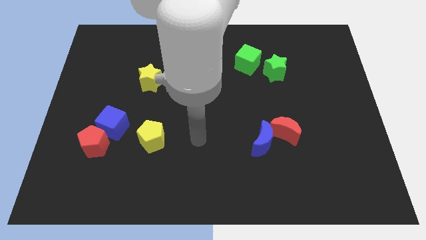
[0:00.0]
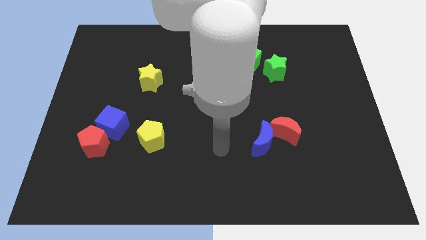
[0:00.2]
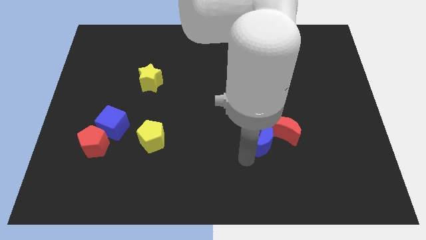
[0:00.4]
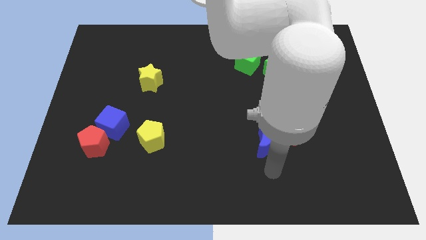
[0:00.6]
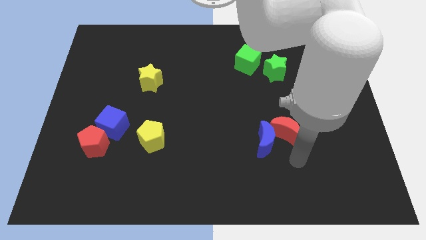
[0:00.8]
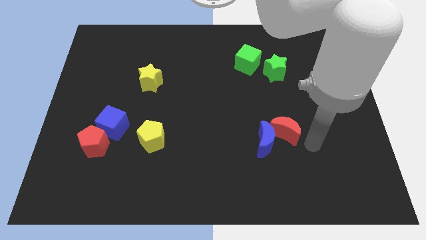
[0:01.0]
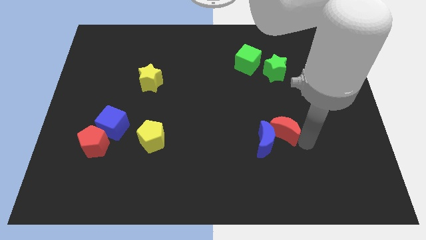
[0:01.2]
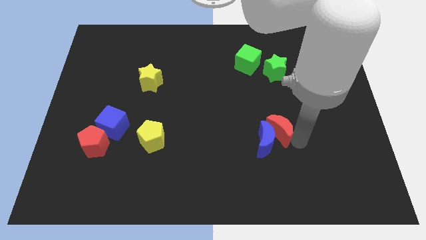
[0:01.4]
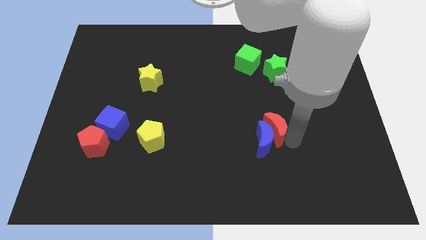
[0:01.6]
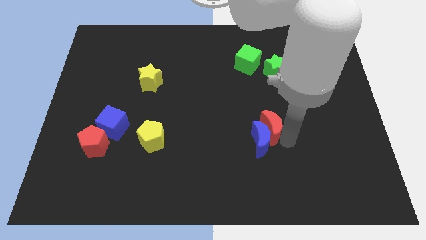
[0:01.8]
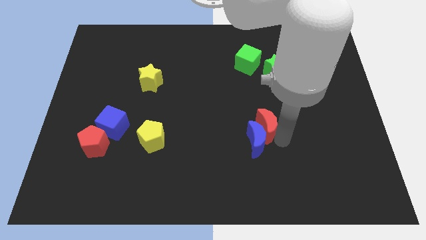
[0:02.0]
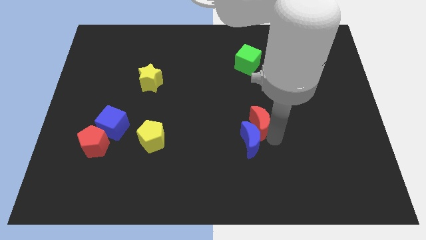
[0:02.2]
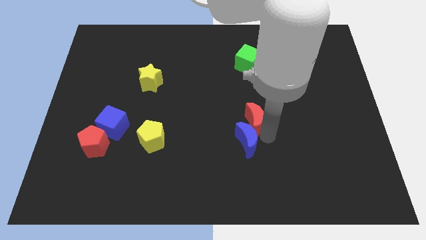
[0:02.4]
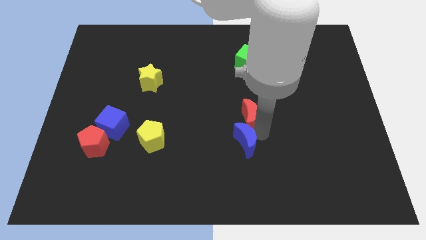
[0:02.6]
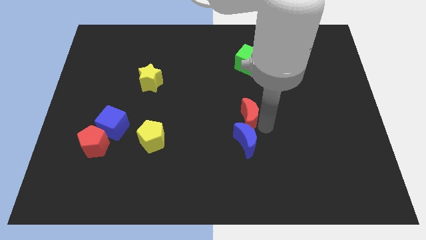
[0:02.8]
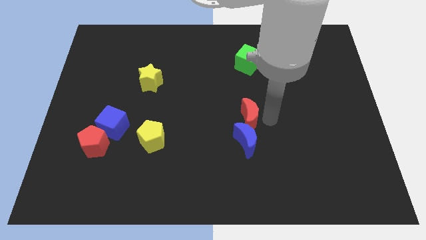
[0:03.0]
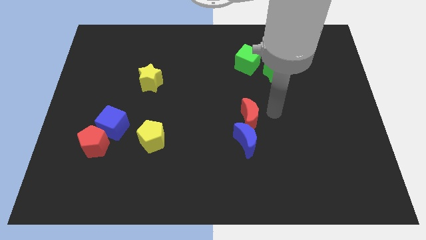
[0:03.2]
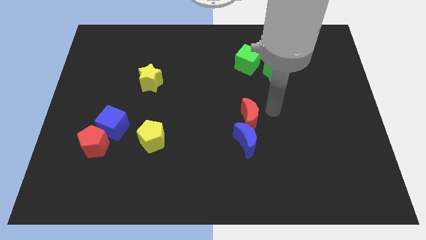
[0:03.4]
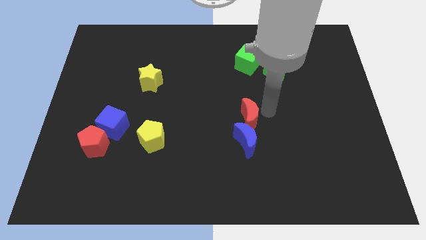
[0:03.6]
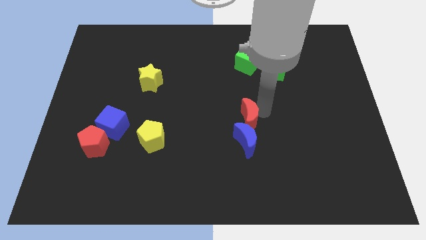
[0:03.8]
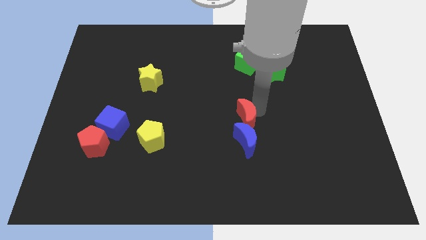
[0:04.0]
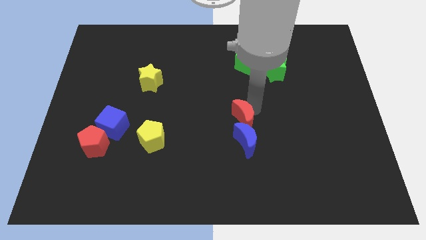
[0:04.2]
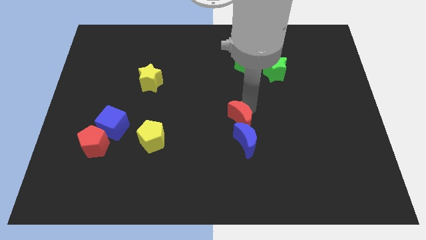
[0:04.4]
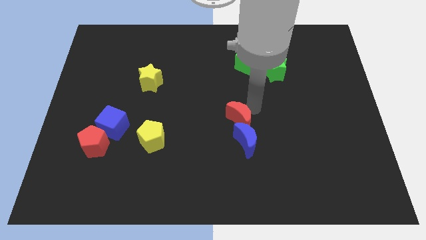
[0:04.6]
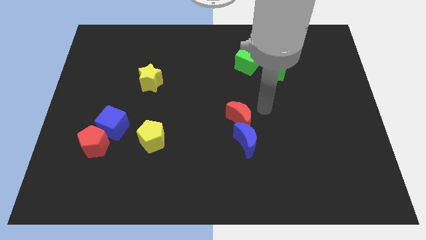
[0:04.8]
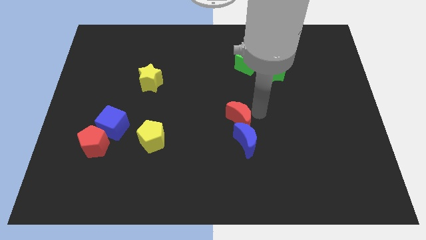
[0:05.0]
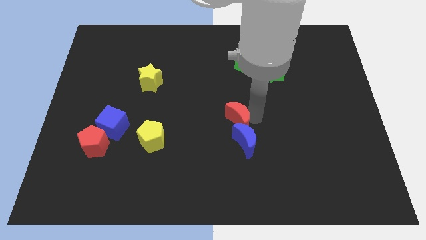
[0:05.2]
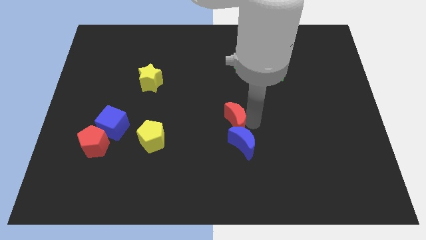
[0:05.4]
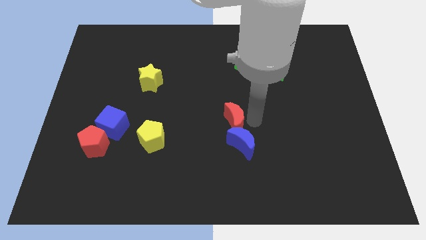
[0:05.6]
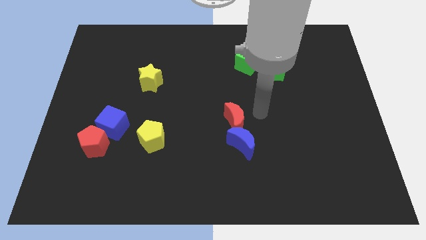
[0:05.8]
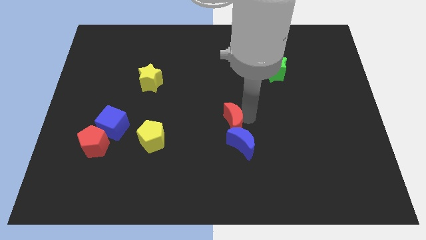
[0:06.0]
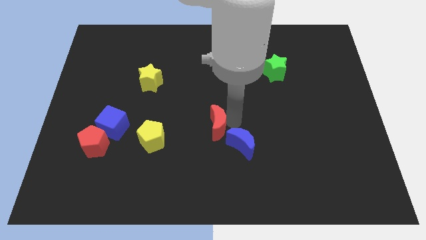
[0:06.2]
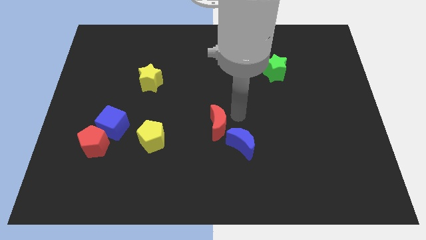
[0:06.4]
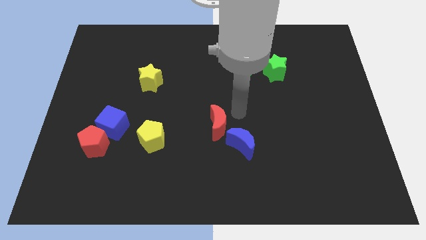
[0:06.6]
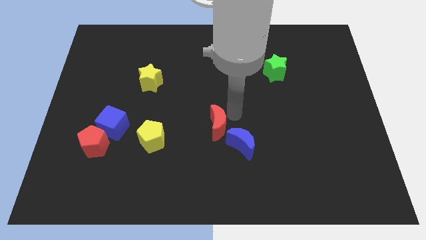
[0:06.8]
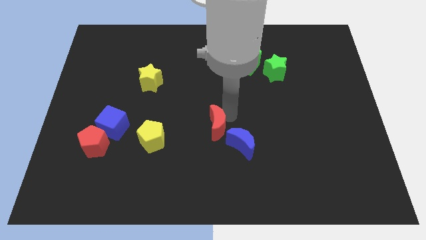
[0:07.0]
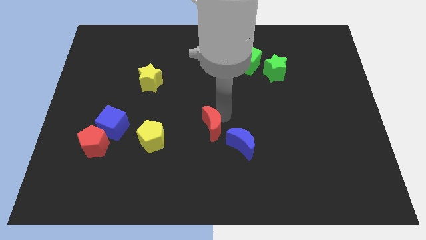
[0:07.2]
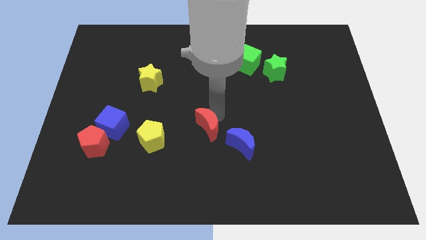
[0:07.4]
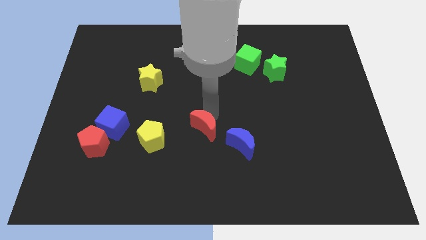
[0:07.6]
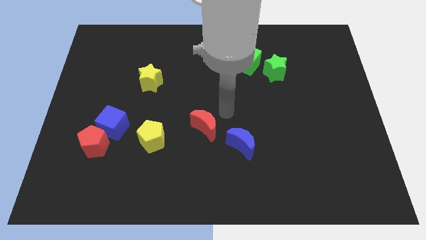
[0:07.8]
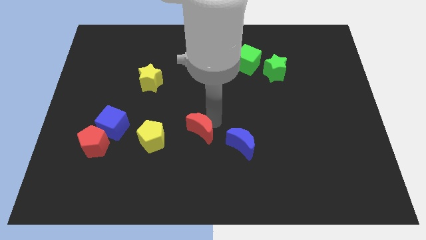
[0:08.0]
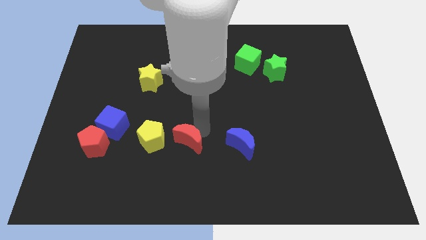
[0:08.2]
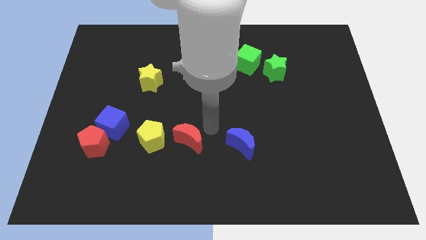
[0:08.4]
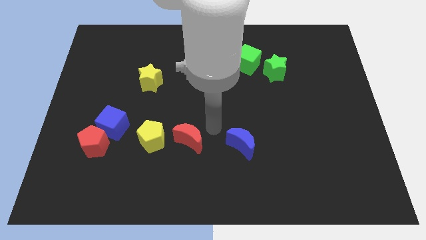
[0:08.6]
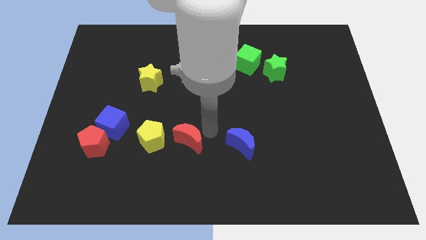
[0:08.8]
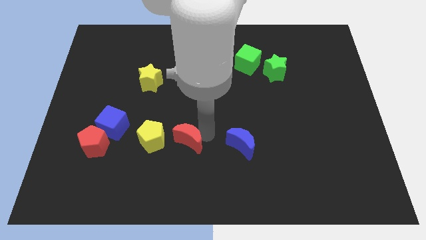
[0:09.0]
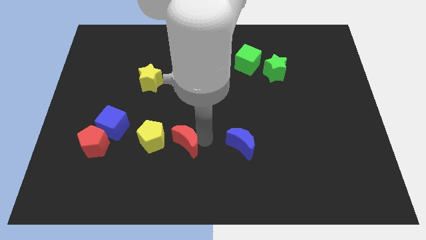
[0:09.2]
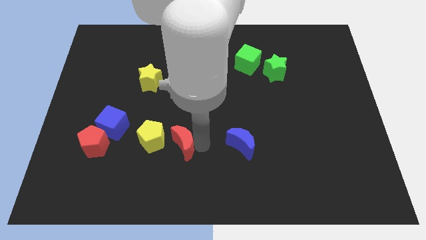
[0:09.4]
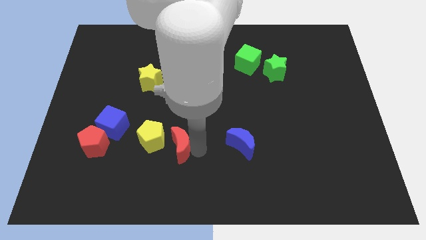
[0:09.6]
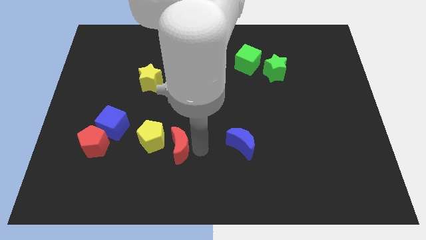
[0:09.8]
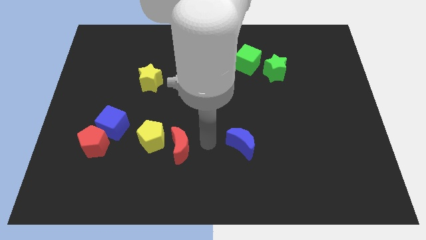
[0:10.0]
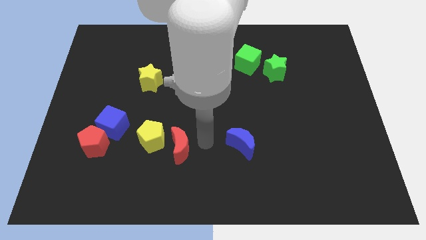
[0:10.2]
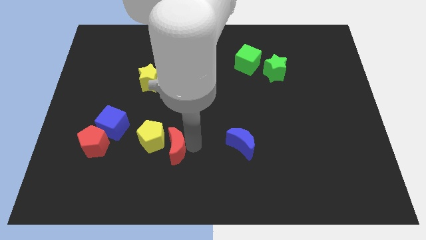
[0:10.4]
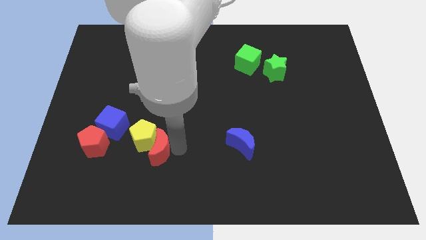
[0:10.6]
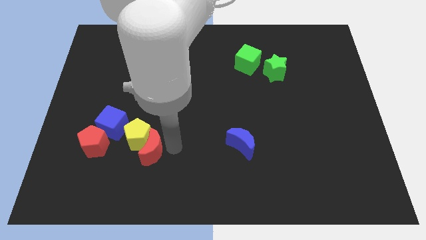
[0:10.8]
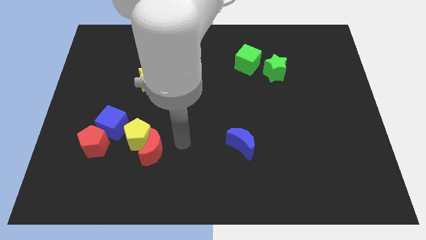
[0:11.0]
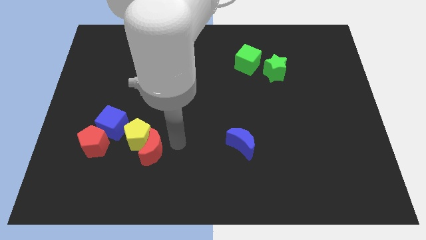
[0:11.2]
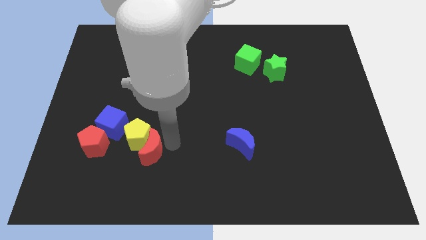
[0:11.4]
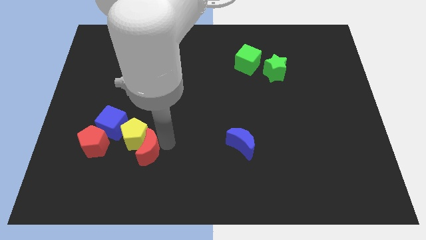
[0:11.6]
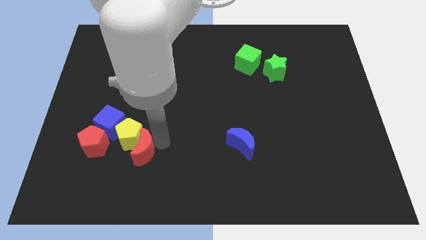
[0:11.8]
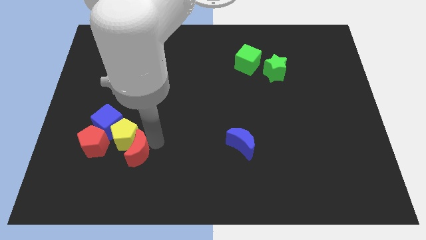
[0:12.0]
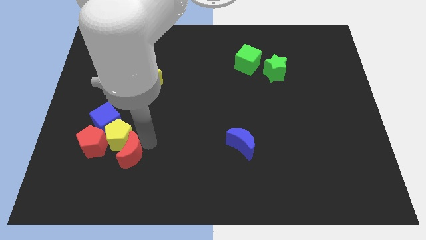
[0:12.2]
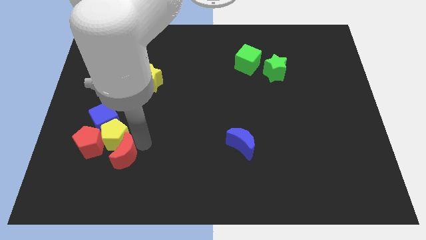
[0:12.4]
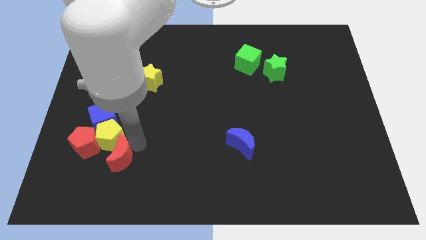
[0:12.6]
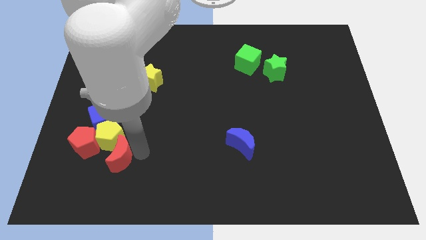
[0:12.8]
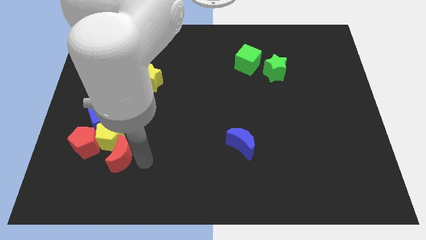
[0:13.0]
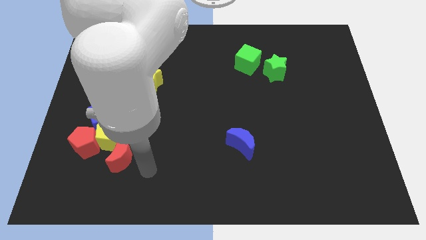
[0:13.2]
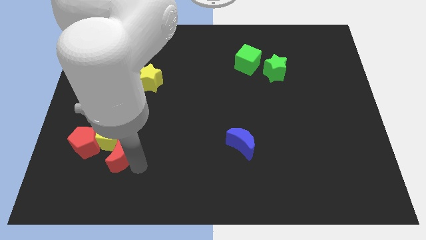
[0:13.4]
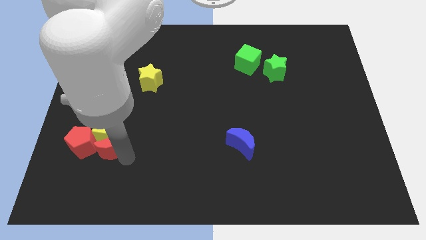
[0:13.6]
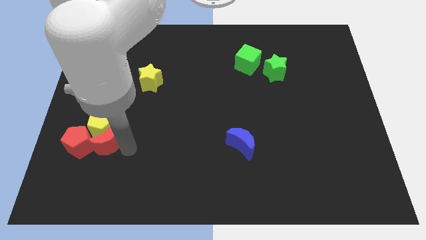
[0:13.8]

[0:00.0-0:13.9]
move the red moon to the red pentagon
